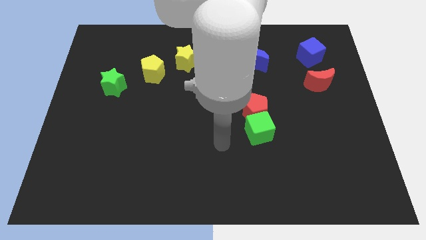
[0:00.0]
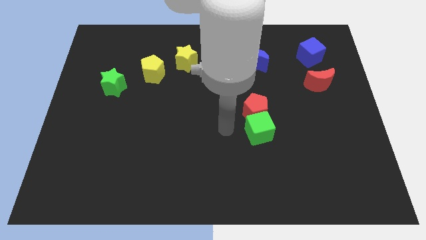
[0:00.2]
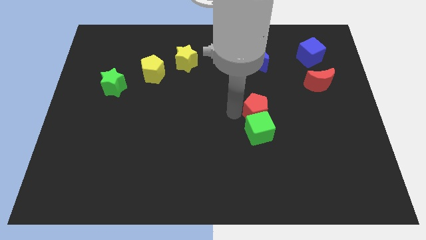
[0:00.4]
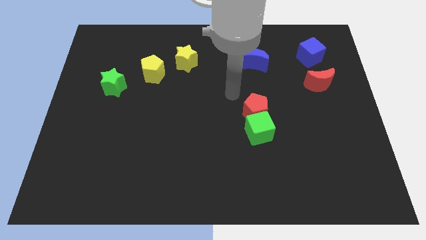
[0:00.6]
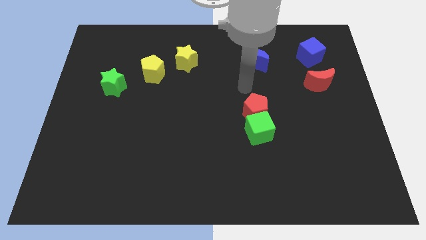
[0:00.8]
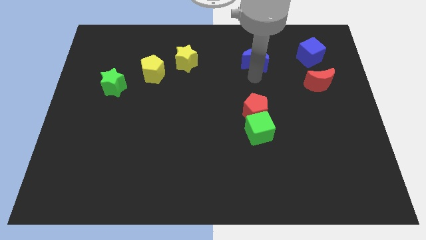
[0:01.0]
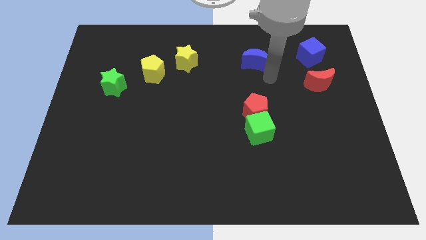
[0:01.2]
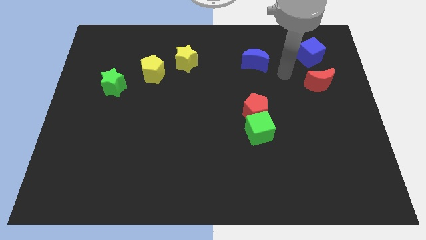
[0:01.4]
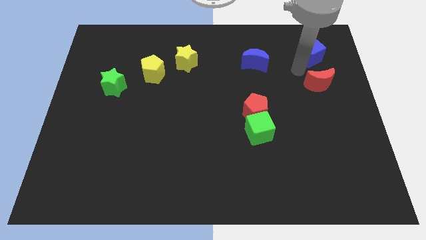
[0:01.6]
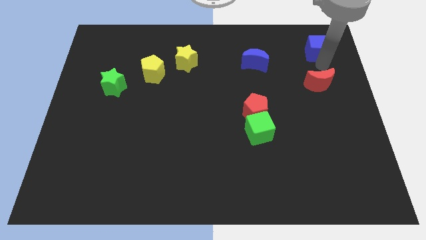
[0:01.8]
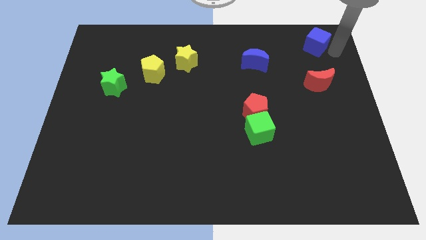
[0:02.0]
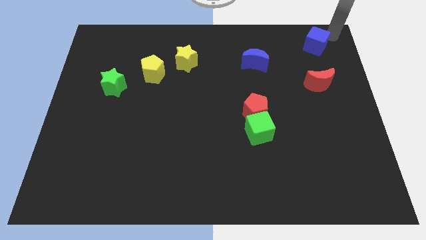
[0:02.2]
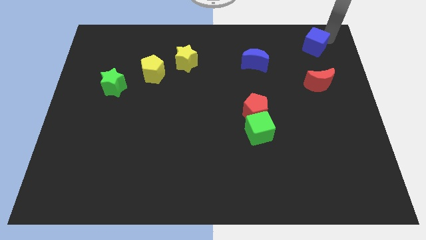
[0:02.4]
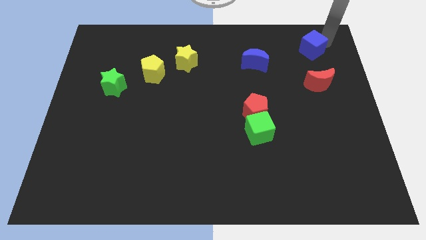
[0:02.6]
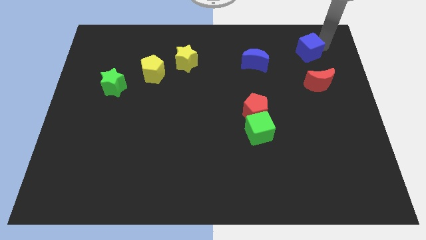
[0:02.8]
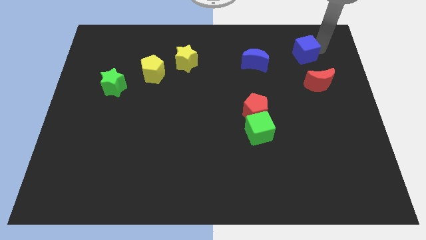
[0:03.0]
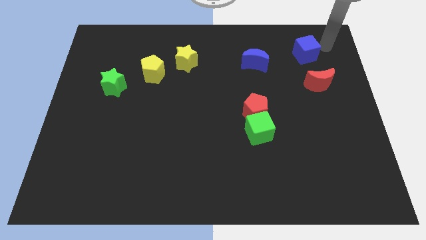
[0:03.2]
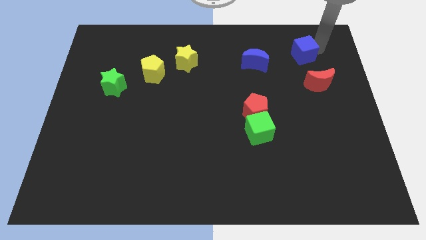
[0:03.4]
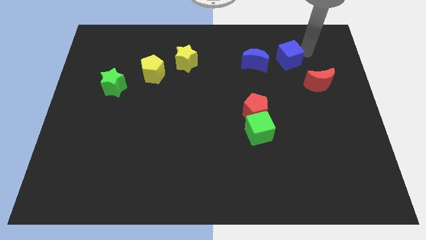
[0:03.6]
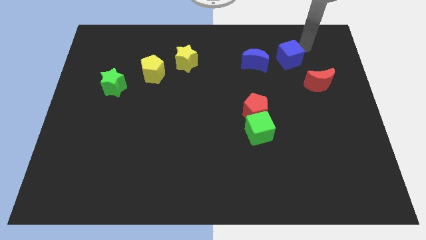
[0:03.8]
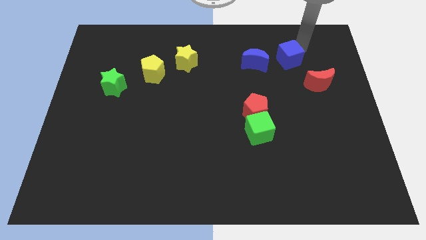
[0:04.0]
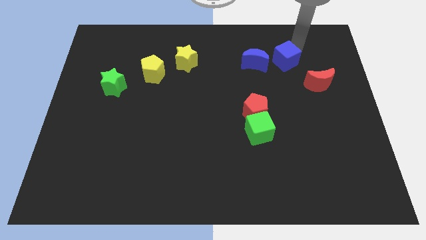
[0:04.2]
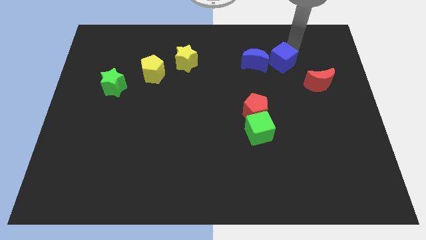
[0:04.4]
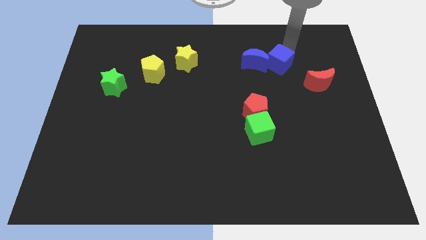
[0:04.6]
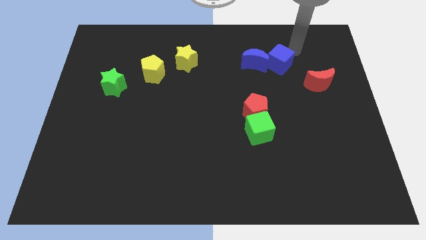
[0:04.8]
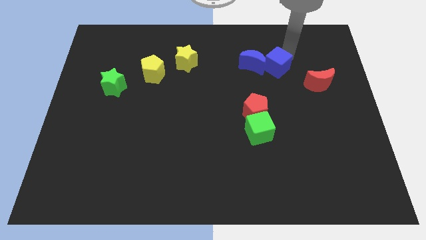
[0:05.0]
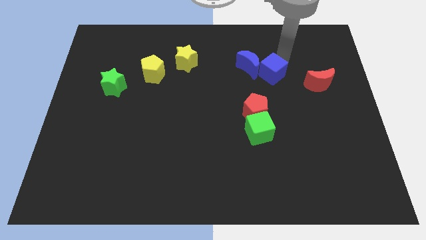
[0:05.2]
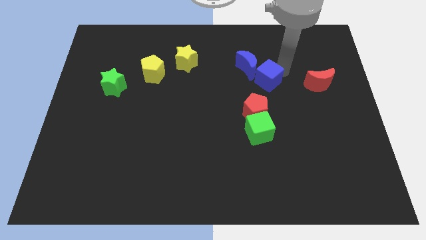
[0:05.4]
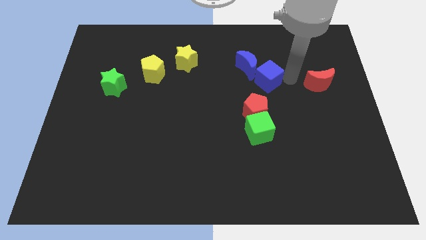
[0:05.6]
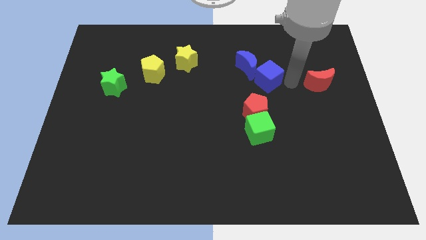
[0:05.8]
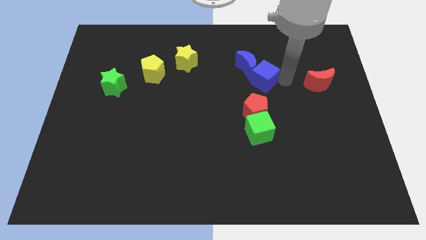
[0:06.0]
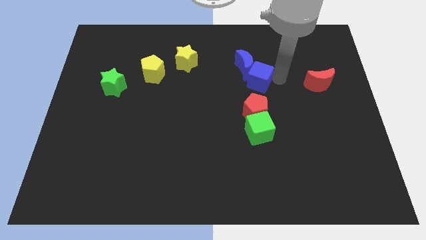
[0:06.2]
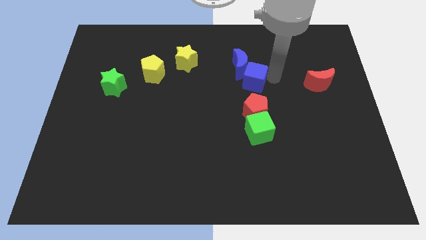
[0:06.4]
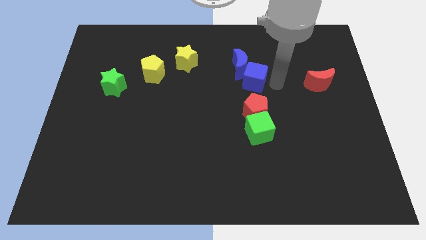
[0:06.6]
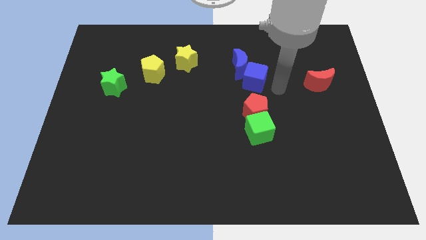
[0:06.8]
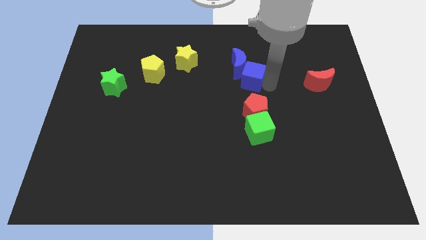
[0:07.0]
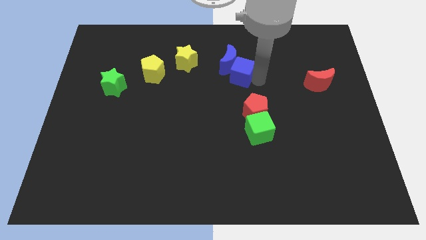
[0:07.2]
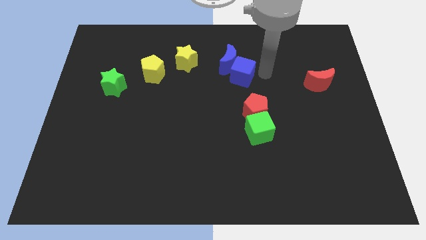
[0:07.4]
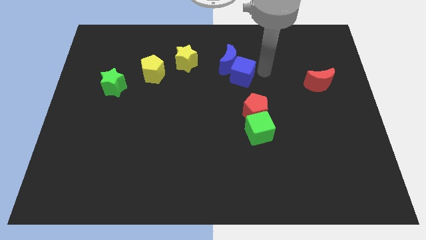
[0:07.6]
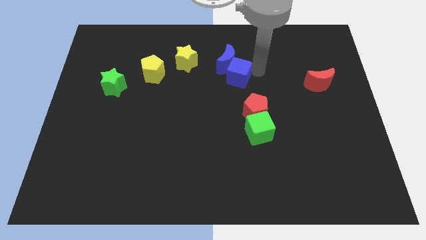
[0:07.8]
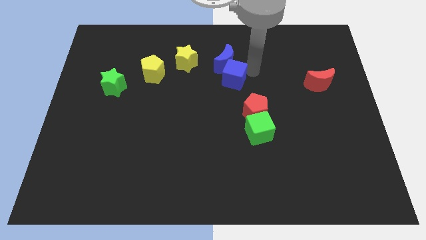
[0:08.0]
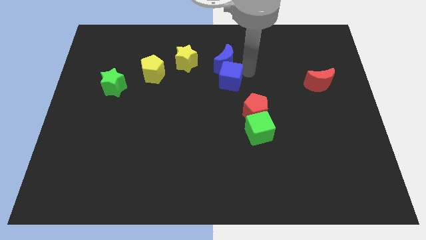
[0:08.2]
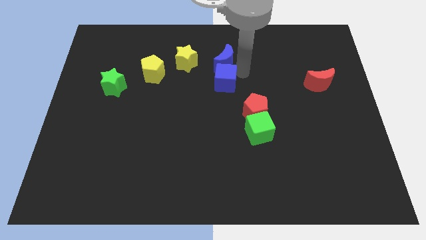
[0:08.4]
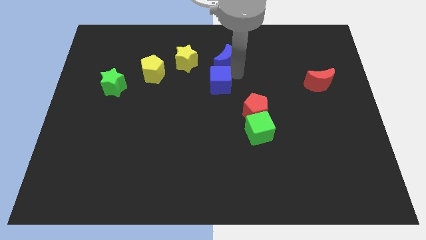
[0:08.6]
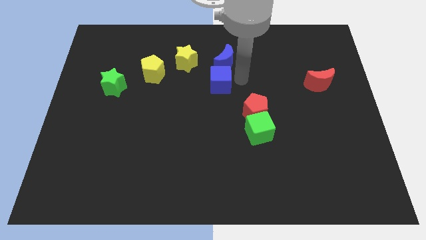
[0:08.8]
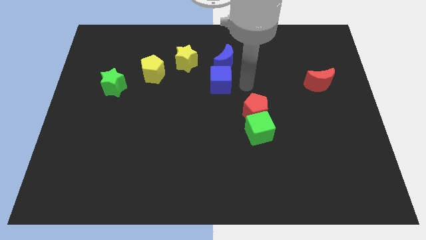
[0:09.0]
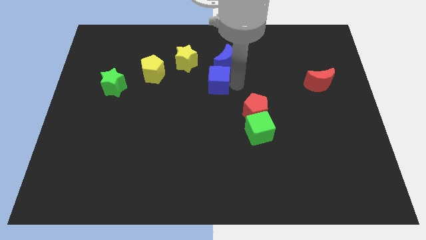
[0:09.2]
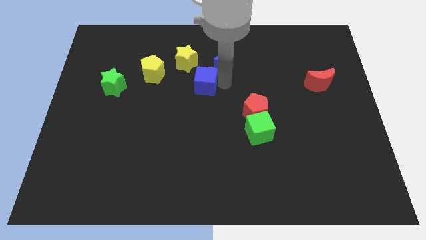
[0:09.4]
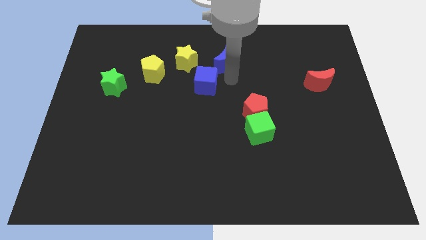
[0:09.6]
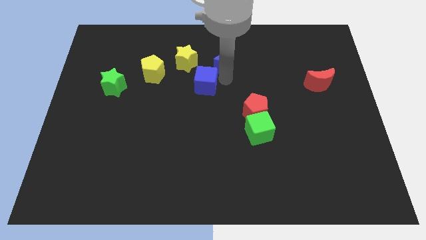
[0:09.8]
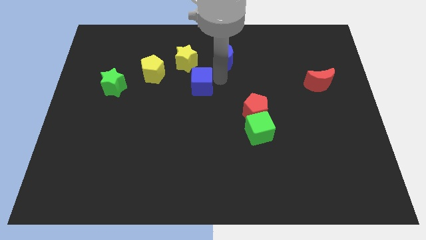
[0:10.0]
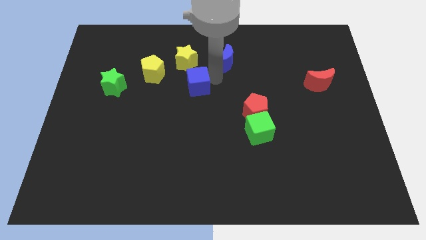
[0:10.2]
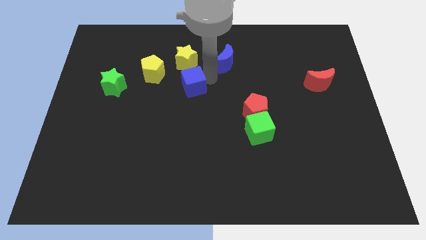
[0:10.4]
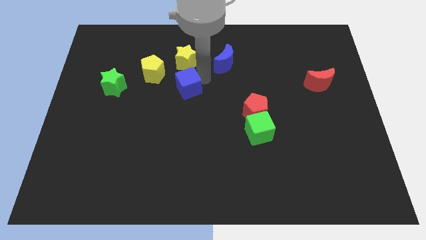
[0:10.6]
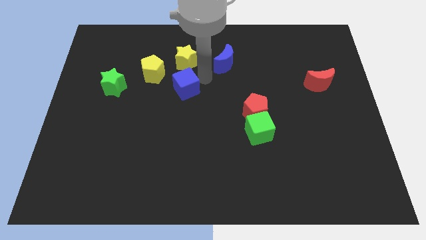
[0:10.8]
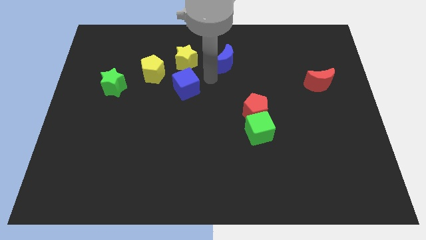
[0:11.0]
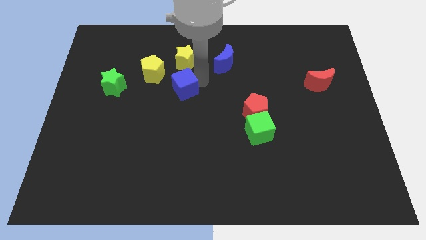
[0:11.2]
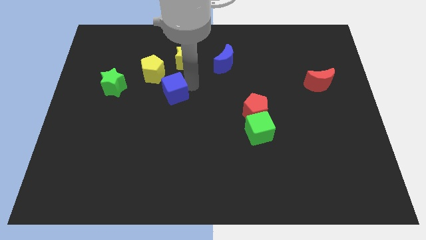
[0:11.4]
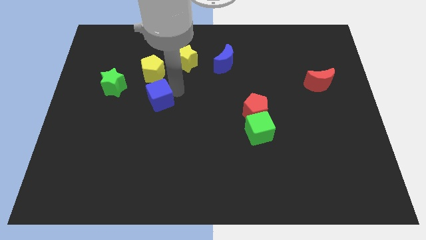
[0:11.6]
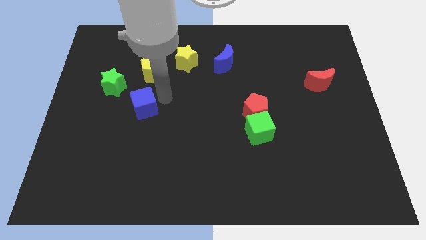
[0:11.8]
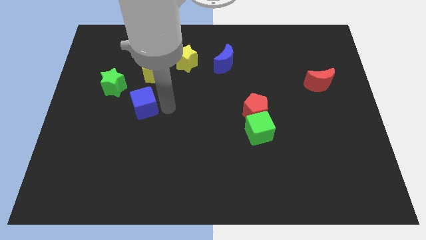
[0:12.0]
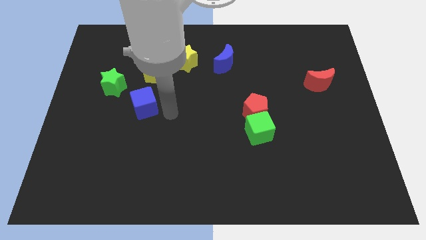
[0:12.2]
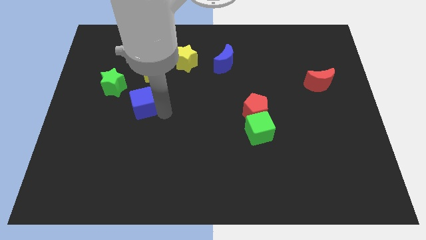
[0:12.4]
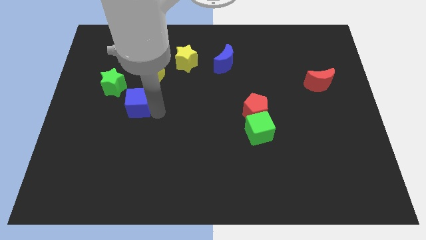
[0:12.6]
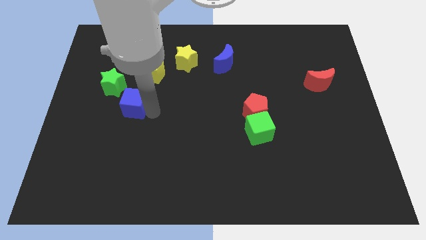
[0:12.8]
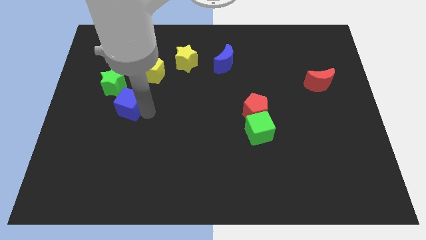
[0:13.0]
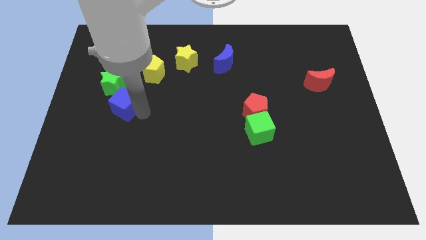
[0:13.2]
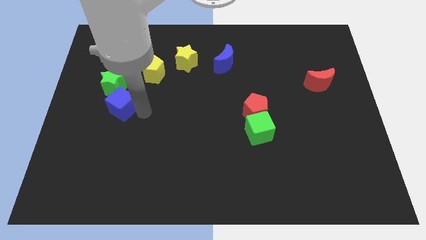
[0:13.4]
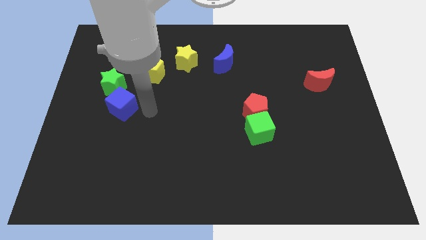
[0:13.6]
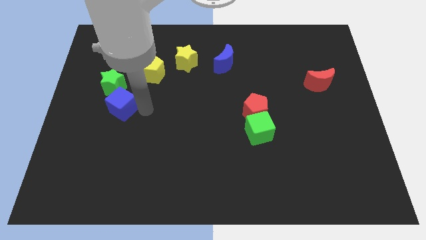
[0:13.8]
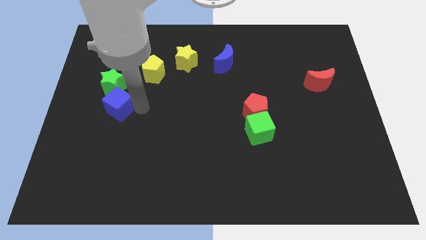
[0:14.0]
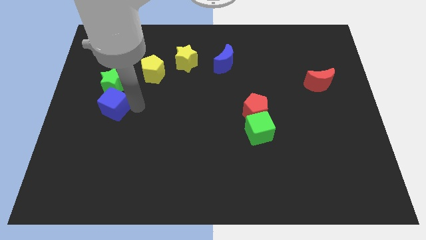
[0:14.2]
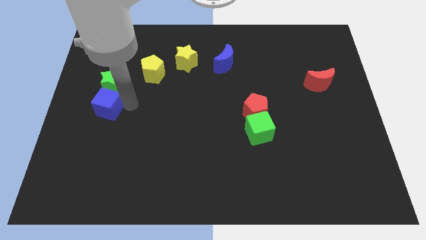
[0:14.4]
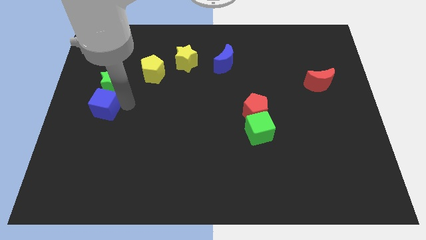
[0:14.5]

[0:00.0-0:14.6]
move the blue cube to the left side of the board
